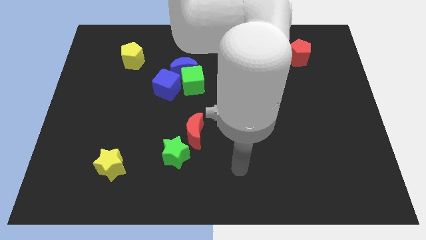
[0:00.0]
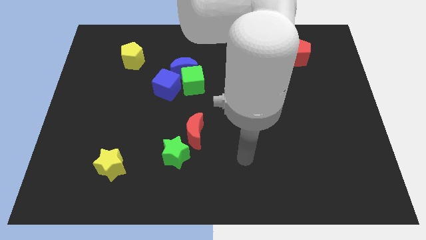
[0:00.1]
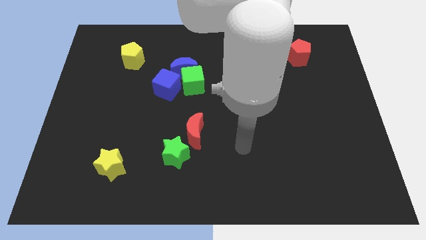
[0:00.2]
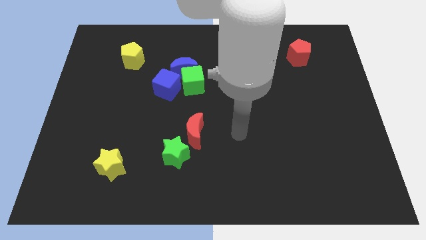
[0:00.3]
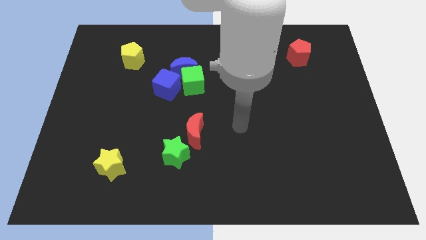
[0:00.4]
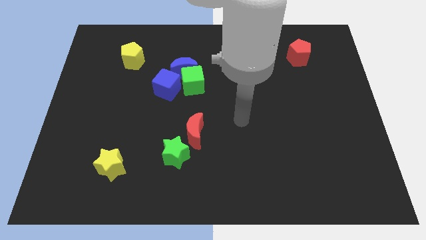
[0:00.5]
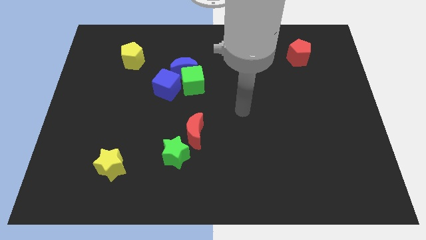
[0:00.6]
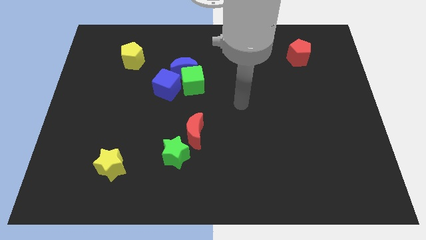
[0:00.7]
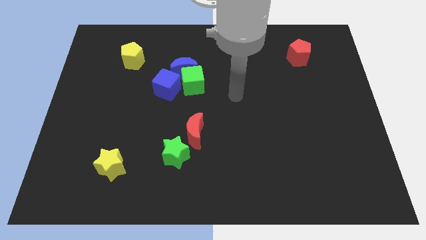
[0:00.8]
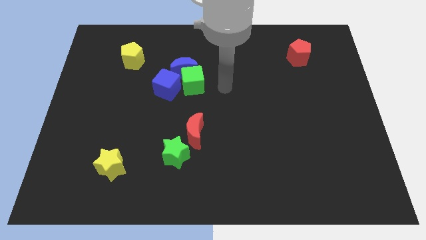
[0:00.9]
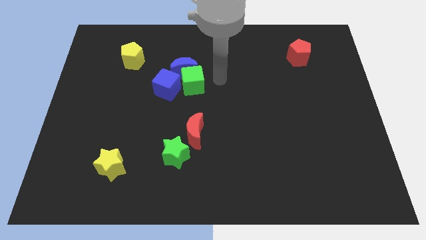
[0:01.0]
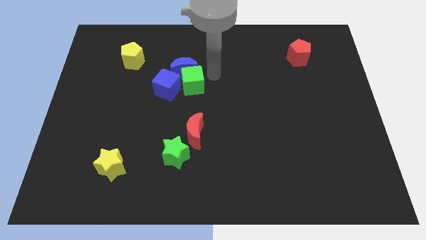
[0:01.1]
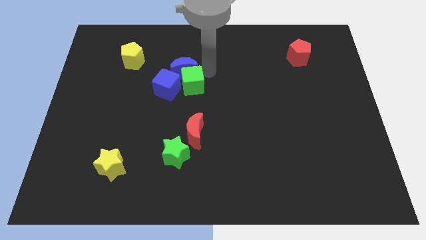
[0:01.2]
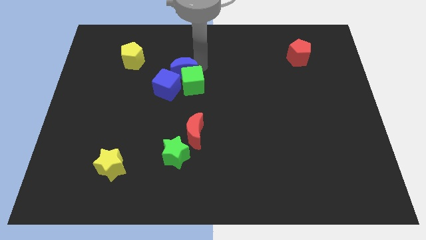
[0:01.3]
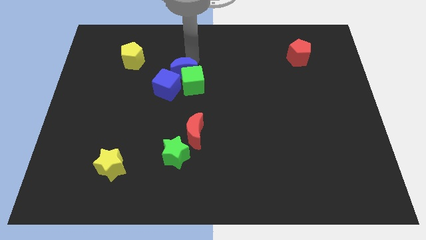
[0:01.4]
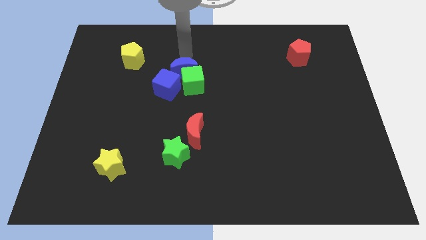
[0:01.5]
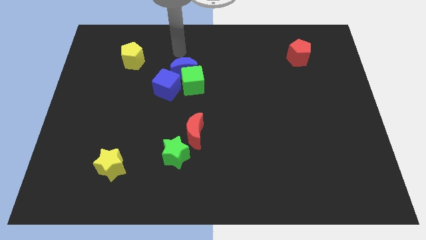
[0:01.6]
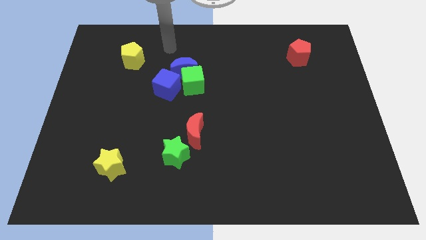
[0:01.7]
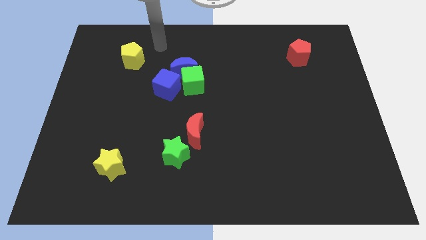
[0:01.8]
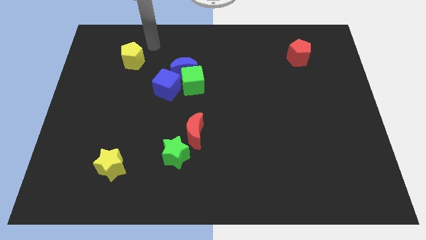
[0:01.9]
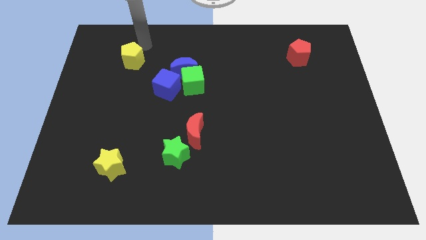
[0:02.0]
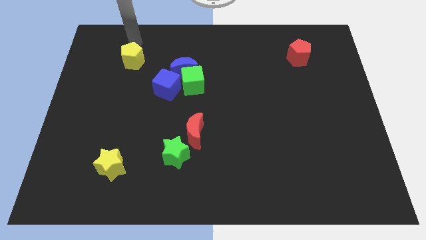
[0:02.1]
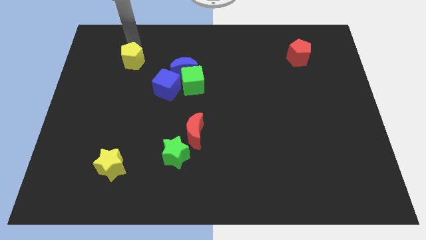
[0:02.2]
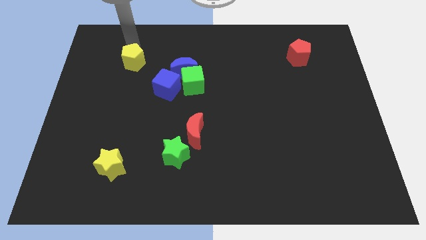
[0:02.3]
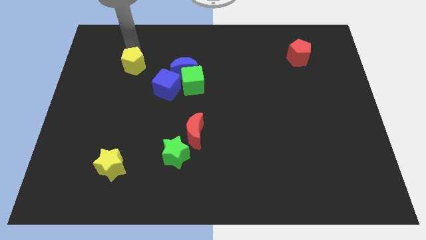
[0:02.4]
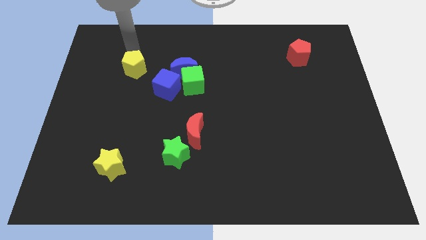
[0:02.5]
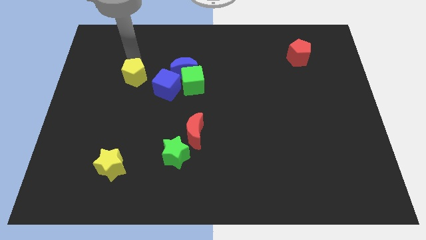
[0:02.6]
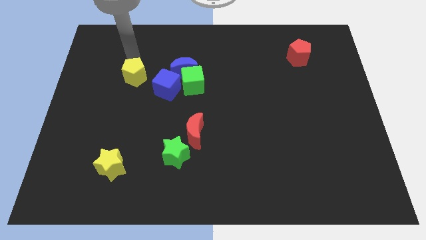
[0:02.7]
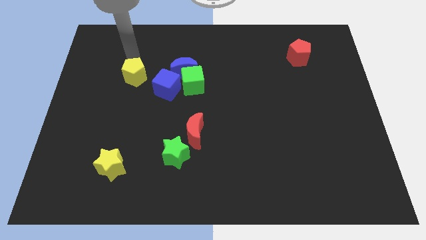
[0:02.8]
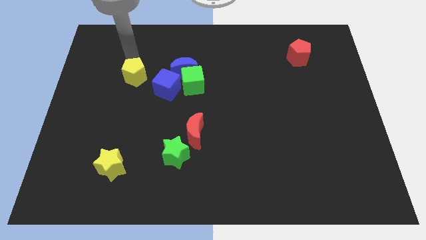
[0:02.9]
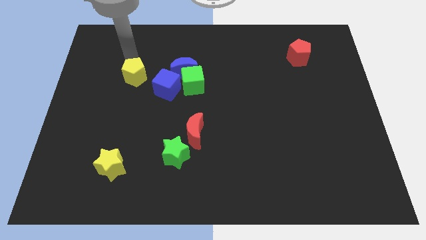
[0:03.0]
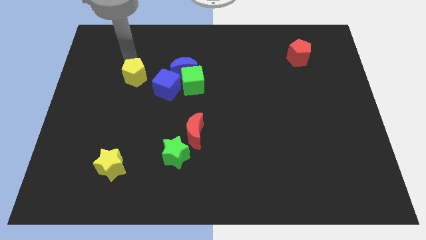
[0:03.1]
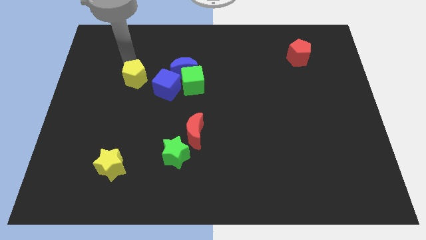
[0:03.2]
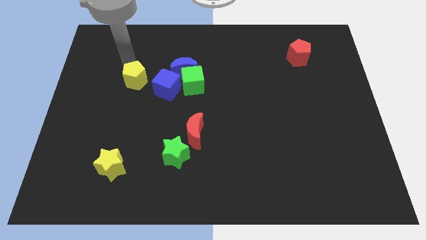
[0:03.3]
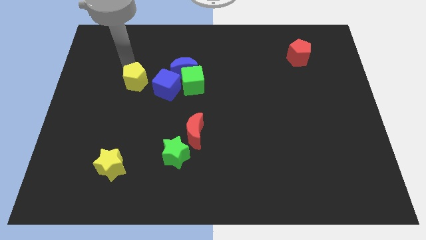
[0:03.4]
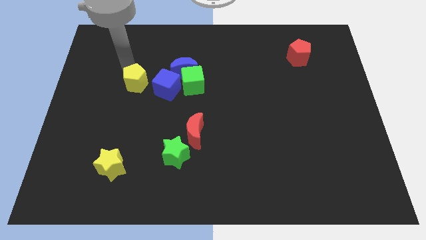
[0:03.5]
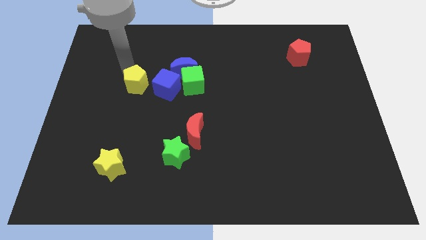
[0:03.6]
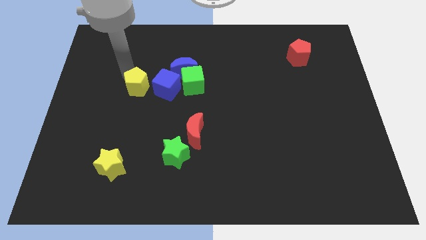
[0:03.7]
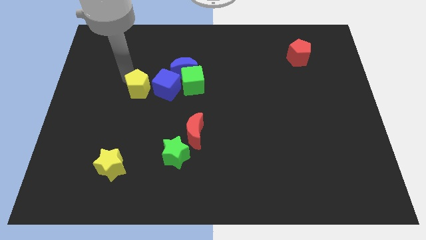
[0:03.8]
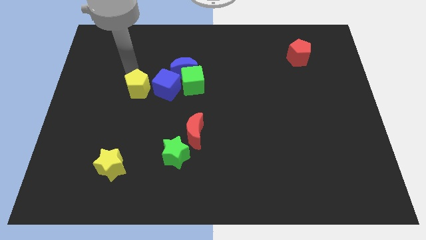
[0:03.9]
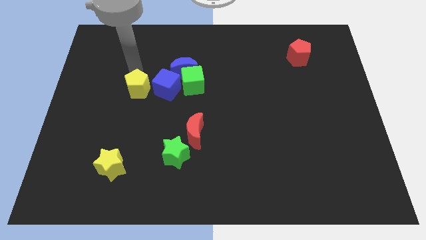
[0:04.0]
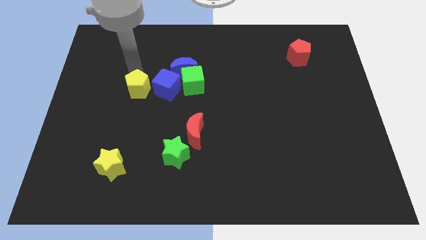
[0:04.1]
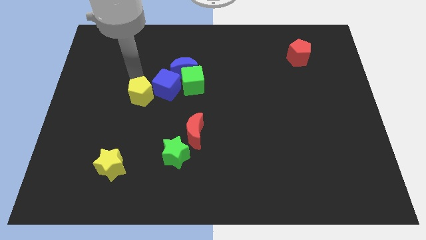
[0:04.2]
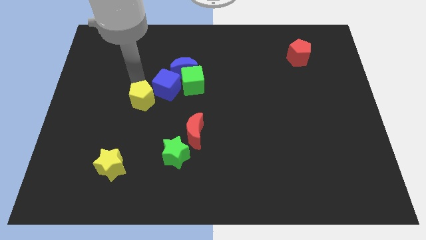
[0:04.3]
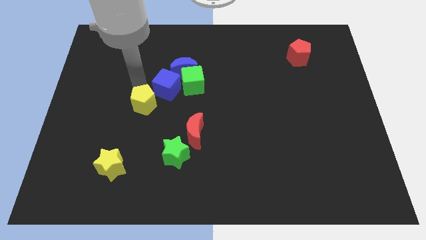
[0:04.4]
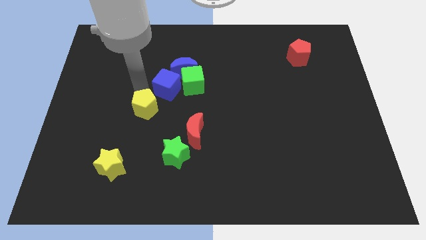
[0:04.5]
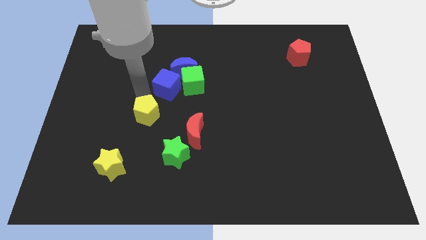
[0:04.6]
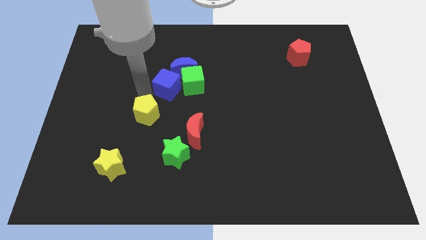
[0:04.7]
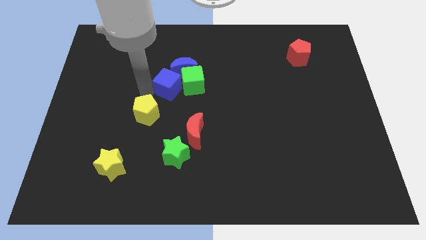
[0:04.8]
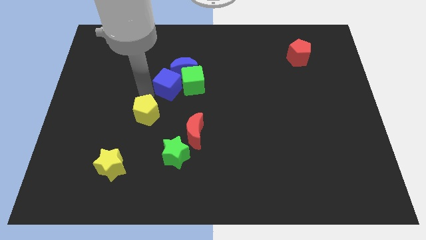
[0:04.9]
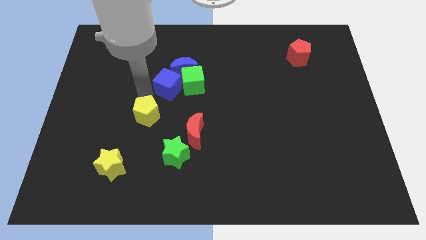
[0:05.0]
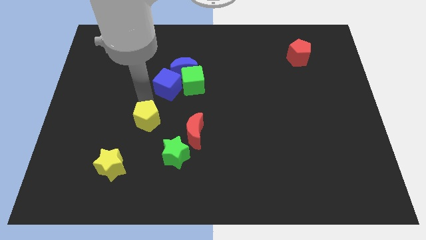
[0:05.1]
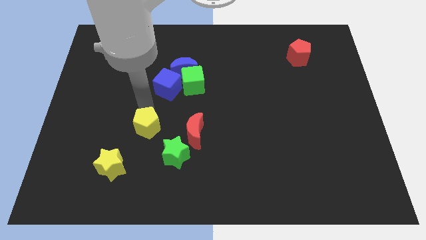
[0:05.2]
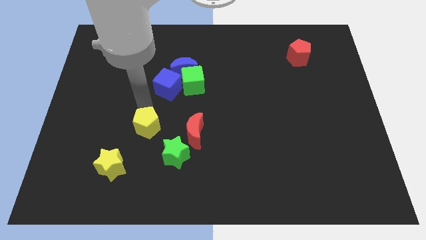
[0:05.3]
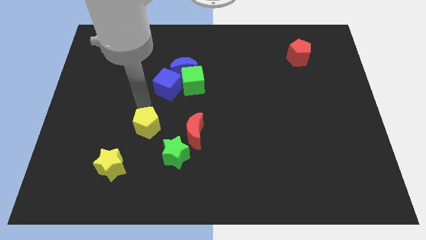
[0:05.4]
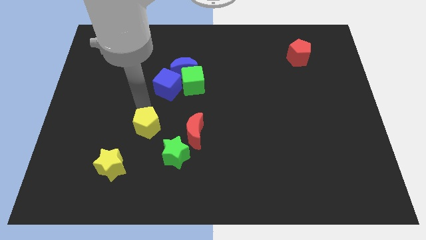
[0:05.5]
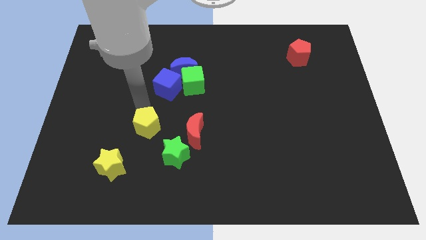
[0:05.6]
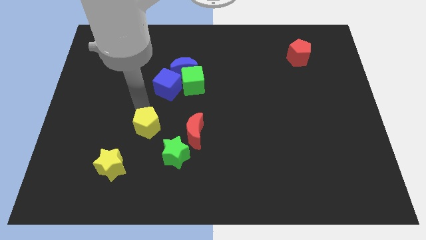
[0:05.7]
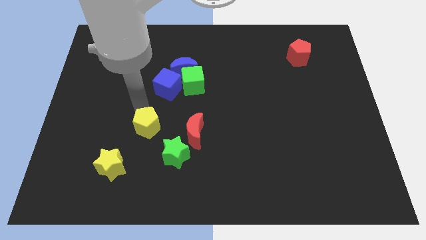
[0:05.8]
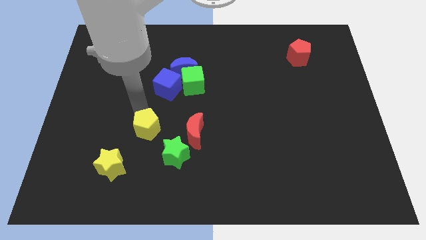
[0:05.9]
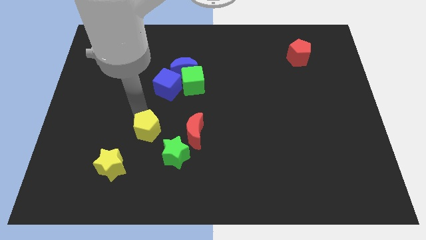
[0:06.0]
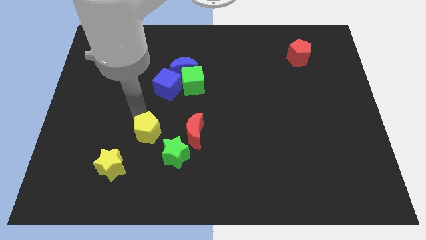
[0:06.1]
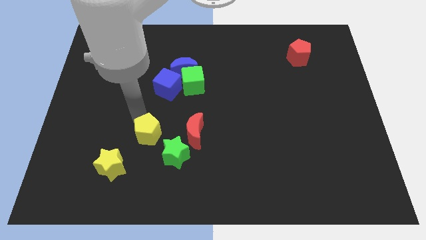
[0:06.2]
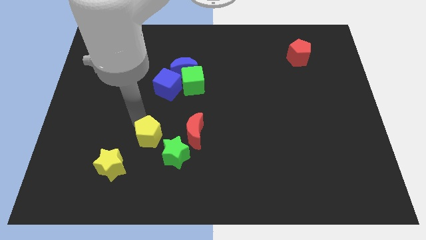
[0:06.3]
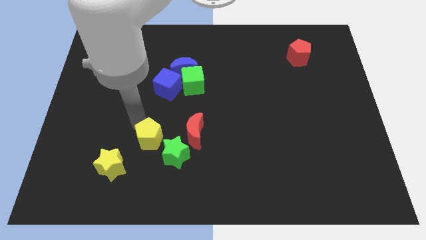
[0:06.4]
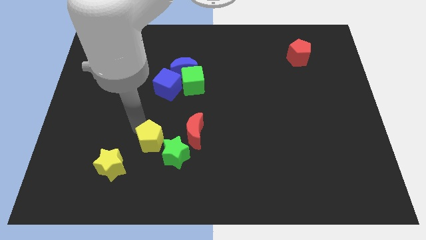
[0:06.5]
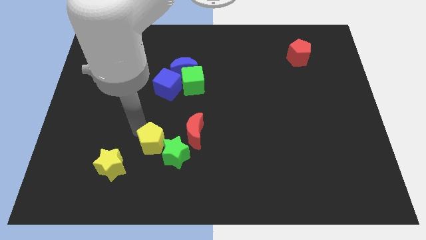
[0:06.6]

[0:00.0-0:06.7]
put the yellow pentagon diagonally down and to the left of the red moon
